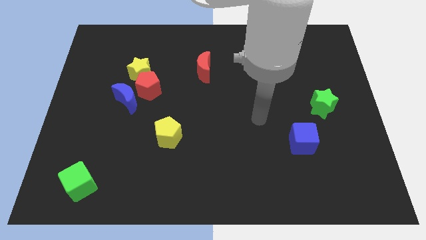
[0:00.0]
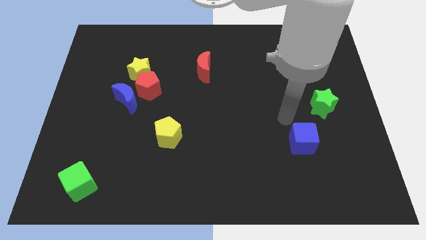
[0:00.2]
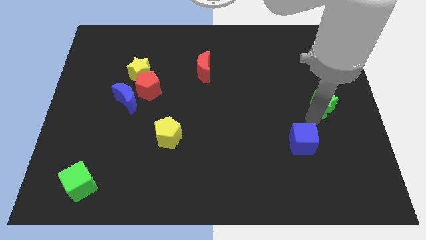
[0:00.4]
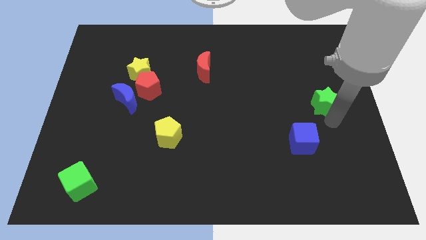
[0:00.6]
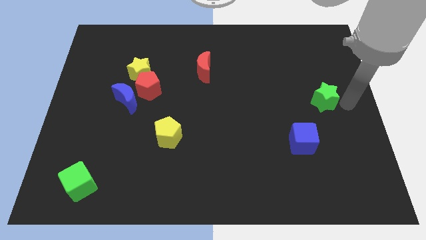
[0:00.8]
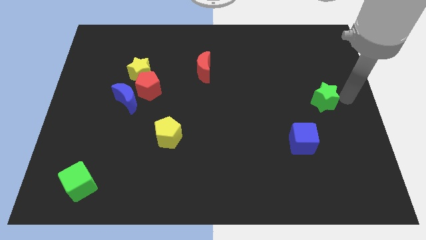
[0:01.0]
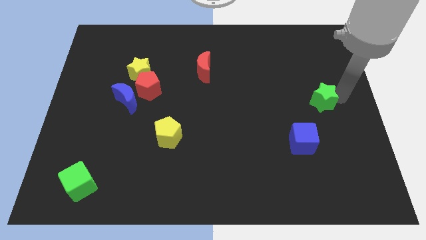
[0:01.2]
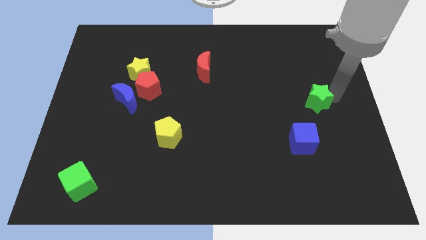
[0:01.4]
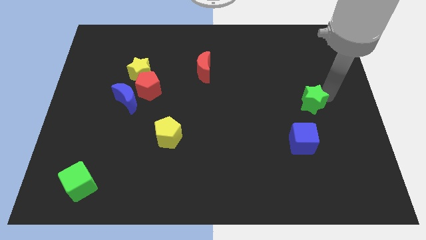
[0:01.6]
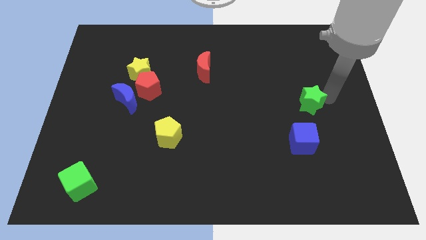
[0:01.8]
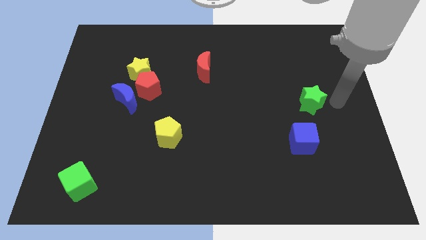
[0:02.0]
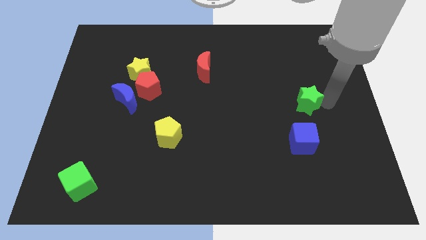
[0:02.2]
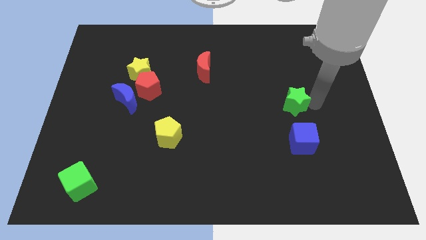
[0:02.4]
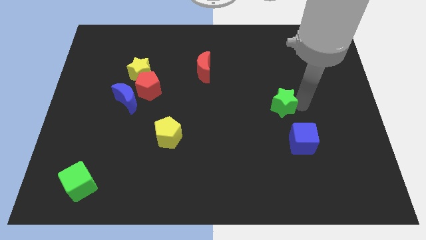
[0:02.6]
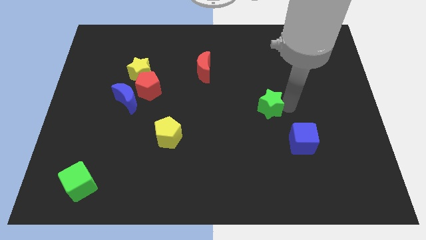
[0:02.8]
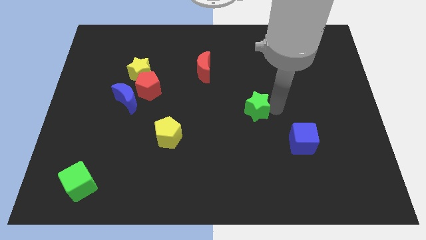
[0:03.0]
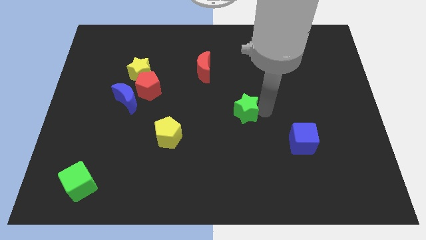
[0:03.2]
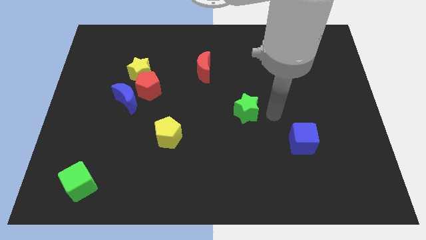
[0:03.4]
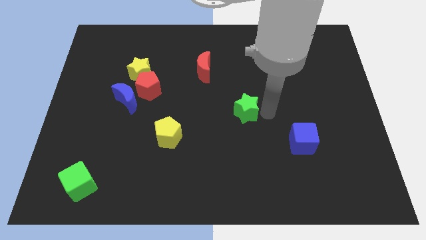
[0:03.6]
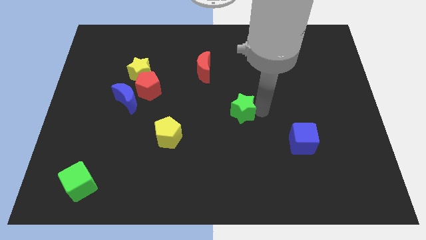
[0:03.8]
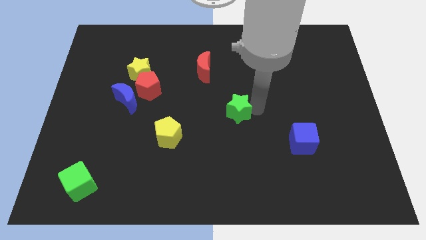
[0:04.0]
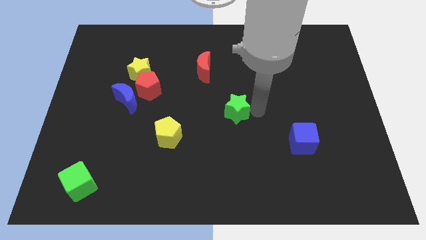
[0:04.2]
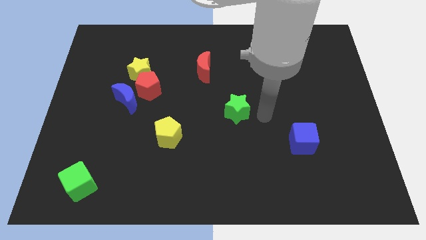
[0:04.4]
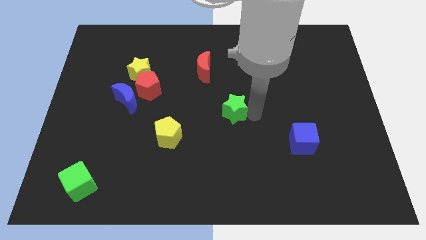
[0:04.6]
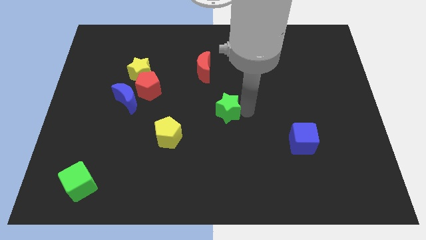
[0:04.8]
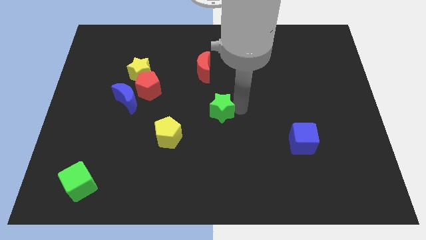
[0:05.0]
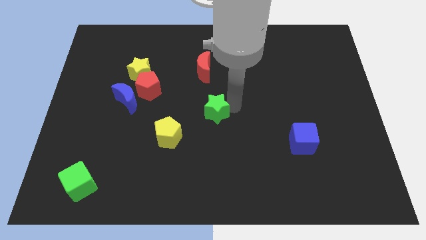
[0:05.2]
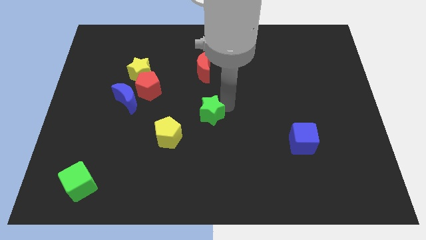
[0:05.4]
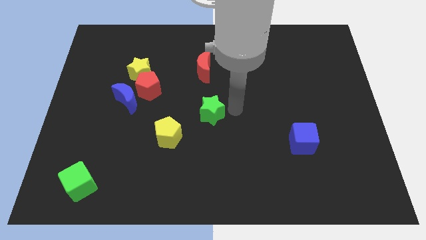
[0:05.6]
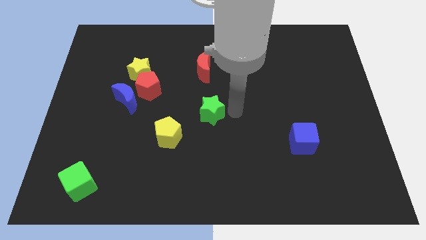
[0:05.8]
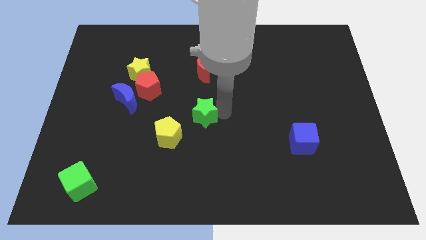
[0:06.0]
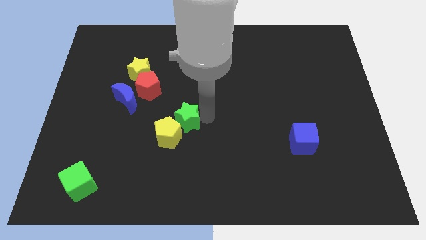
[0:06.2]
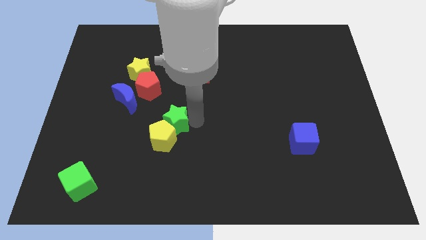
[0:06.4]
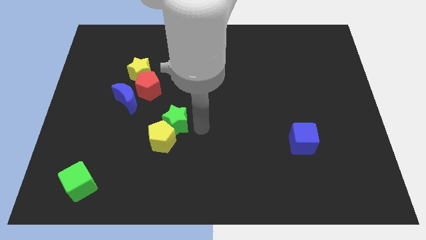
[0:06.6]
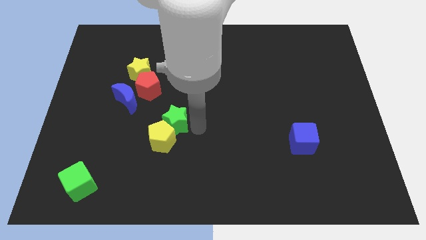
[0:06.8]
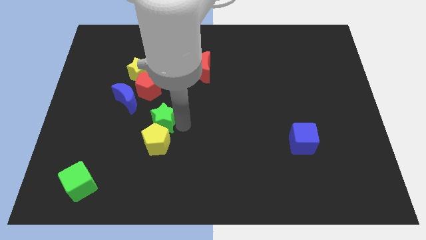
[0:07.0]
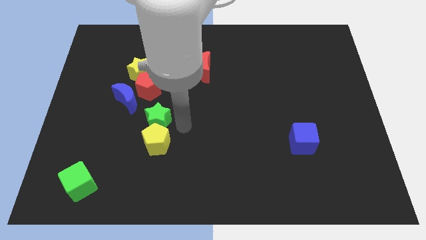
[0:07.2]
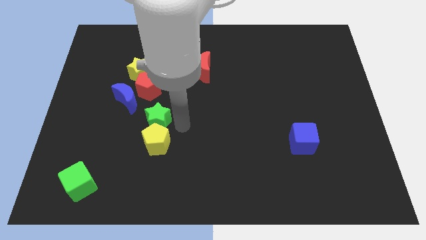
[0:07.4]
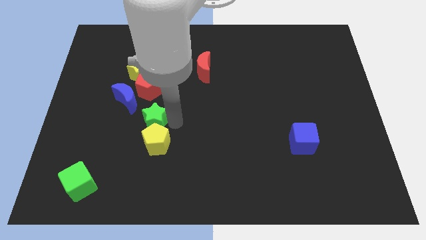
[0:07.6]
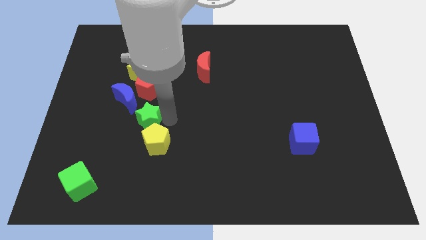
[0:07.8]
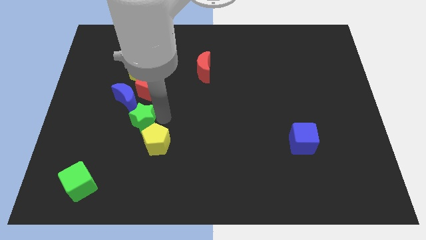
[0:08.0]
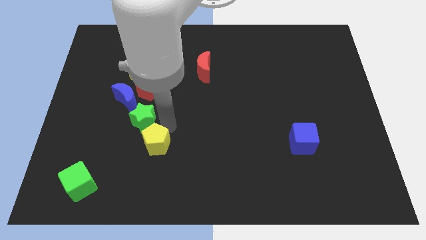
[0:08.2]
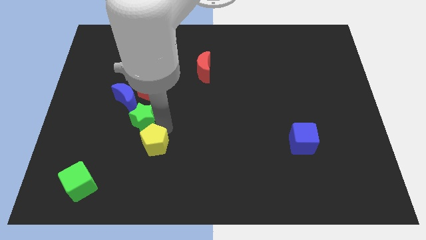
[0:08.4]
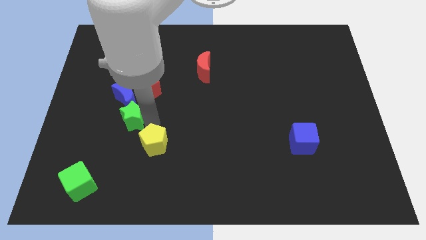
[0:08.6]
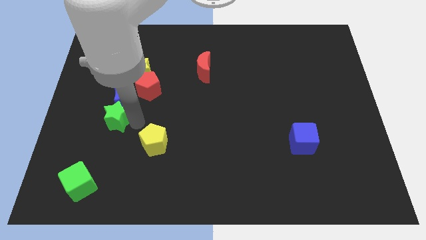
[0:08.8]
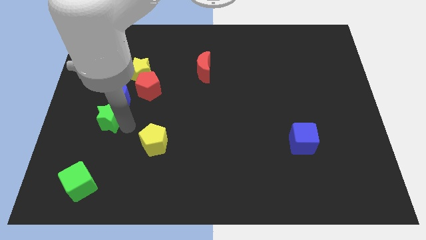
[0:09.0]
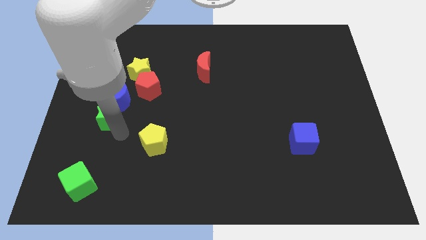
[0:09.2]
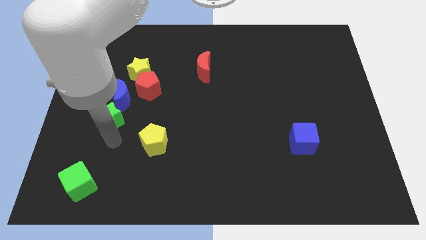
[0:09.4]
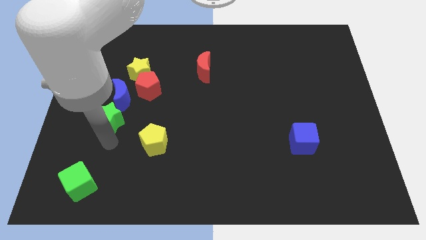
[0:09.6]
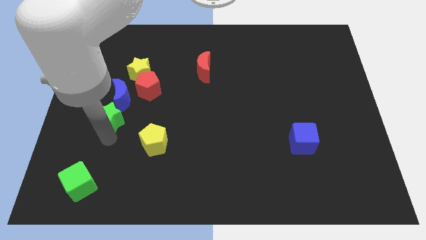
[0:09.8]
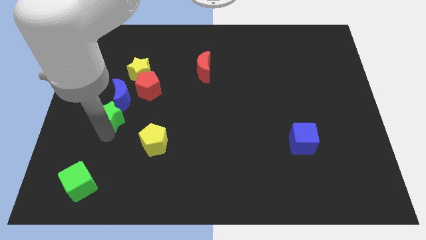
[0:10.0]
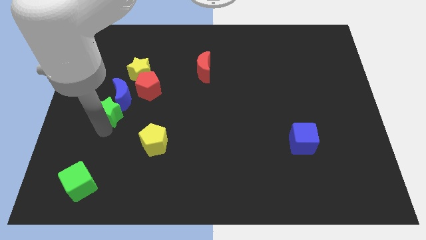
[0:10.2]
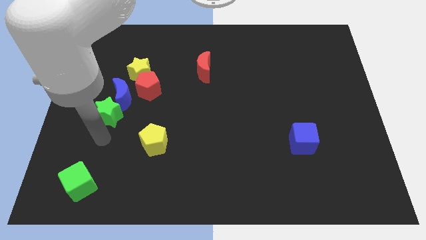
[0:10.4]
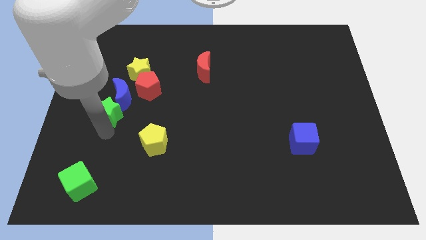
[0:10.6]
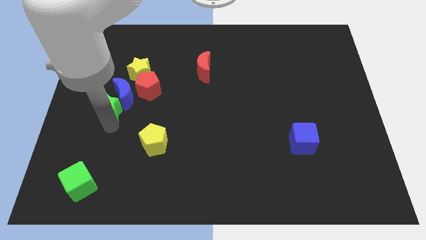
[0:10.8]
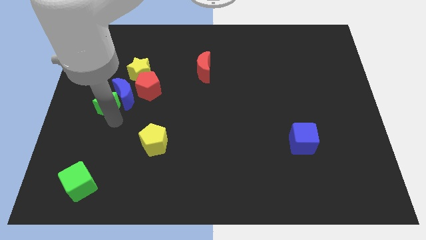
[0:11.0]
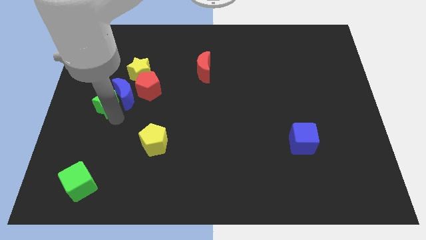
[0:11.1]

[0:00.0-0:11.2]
push the green star to the bottom left side of the yellow star
